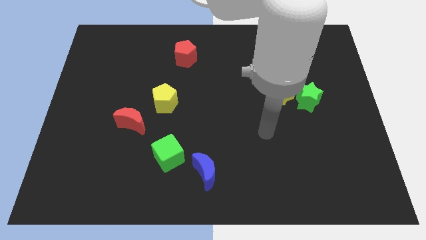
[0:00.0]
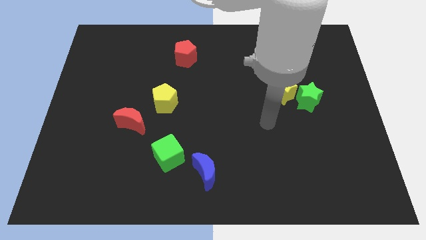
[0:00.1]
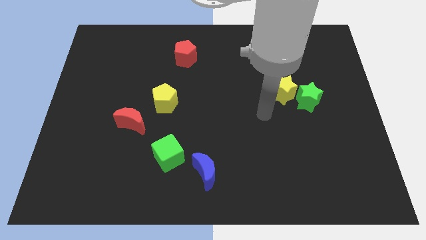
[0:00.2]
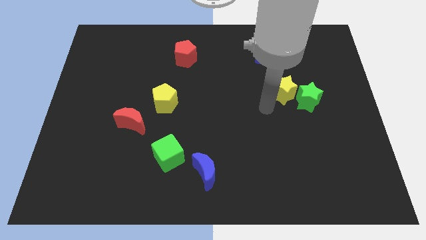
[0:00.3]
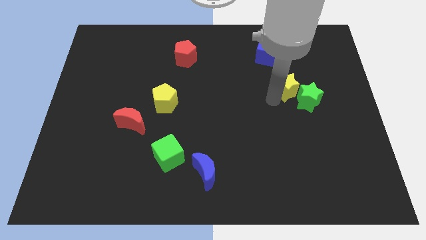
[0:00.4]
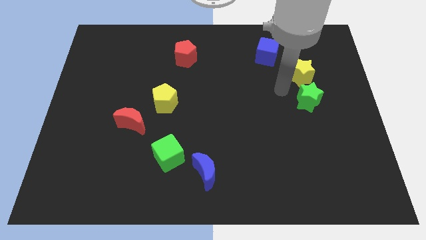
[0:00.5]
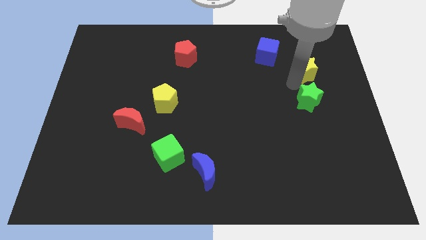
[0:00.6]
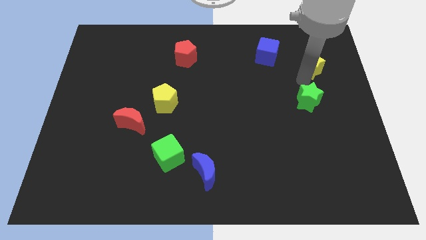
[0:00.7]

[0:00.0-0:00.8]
pull the green star apart from the yellow star

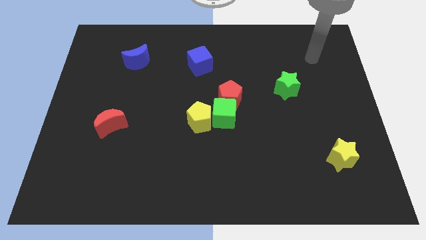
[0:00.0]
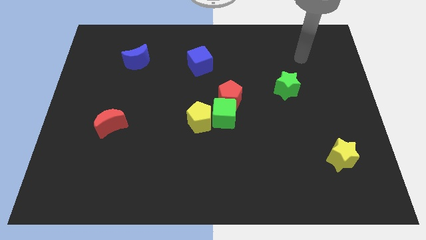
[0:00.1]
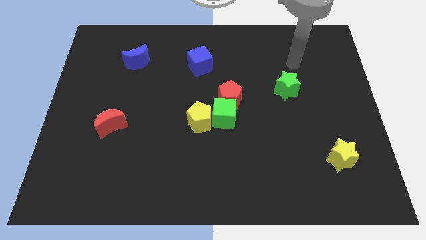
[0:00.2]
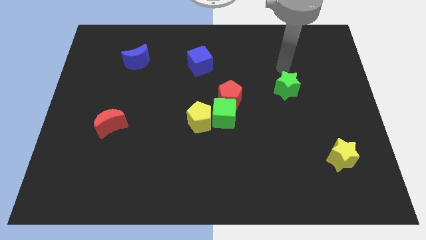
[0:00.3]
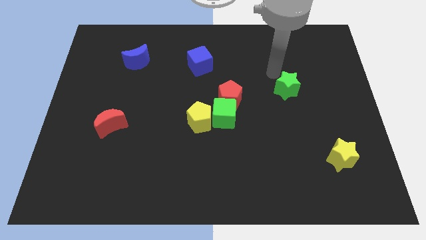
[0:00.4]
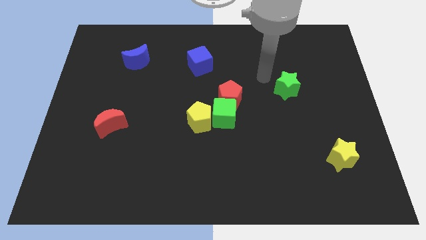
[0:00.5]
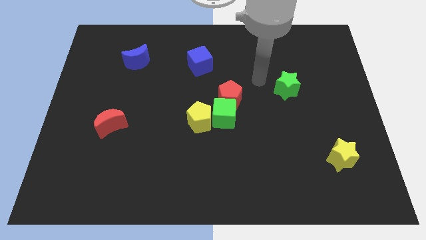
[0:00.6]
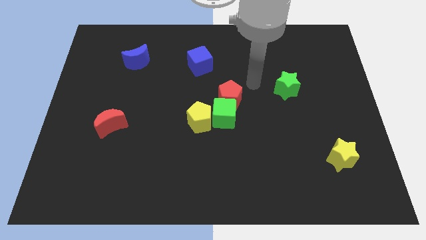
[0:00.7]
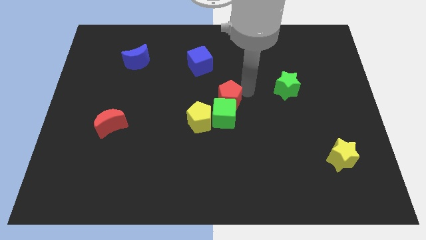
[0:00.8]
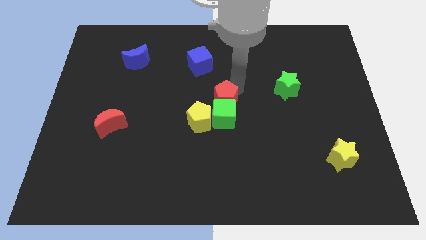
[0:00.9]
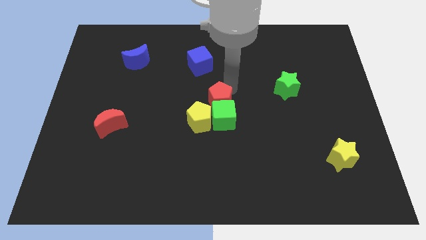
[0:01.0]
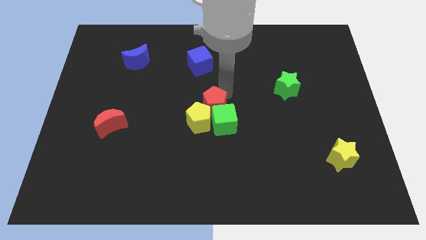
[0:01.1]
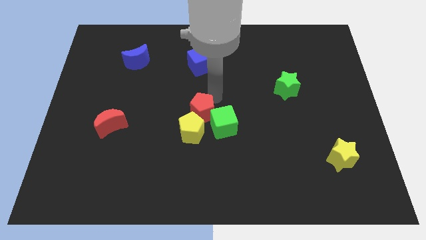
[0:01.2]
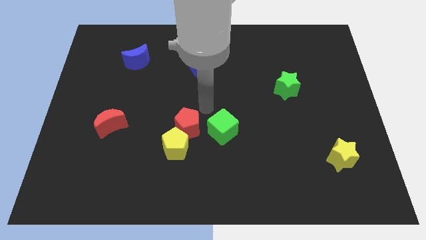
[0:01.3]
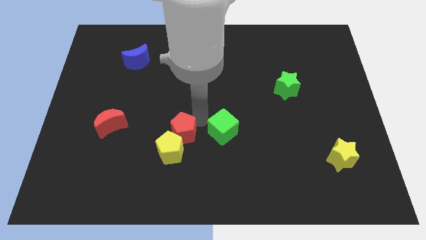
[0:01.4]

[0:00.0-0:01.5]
separate the green cube from the red pentagon and yellow pentagon

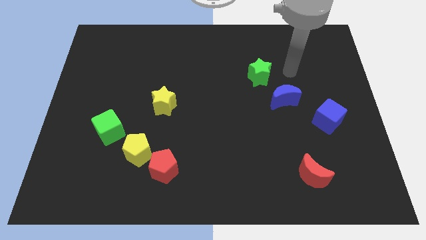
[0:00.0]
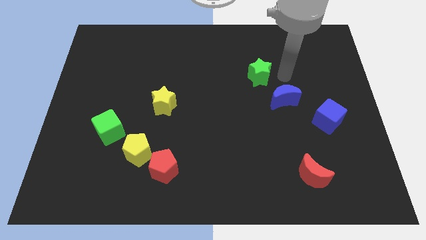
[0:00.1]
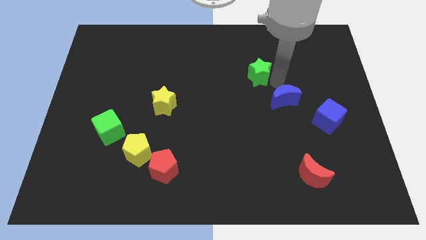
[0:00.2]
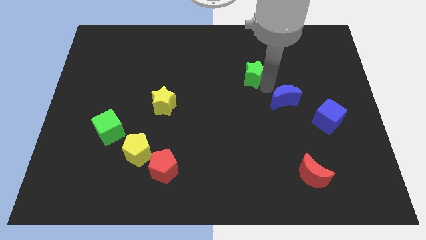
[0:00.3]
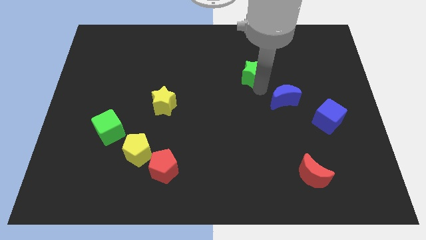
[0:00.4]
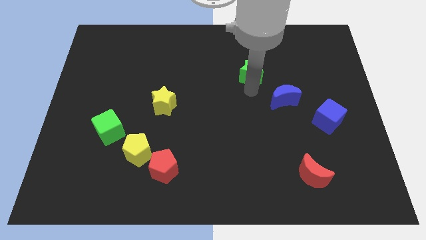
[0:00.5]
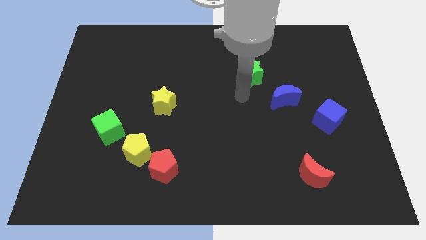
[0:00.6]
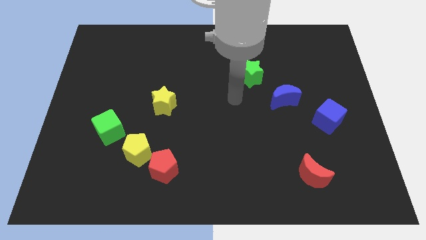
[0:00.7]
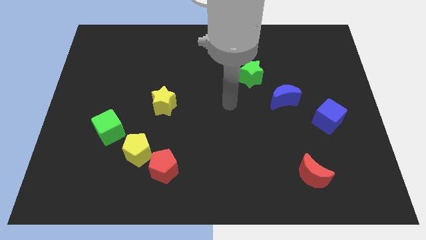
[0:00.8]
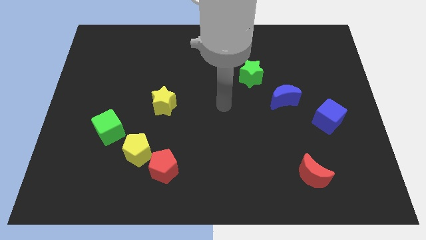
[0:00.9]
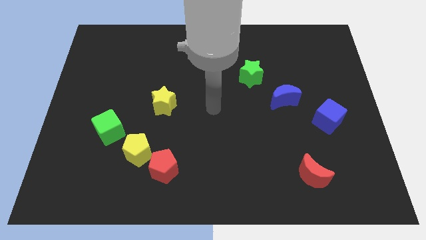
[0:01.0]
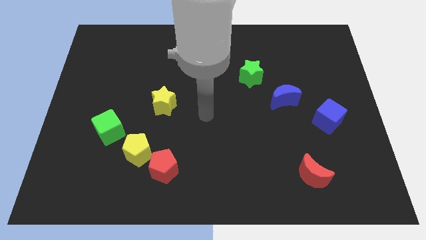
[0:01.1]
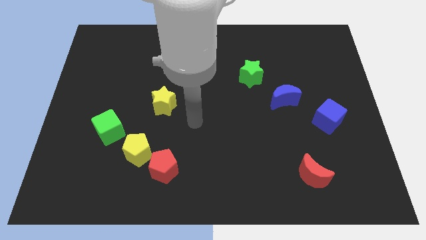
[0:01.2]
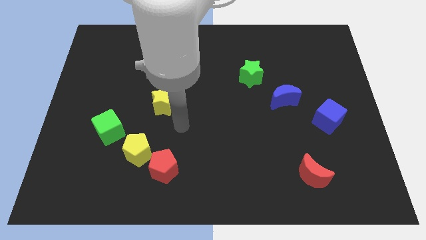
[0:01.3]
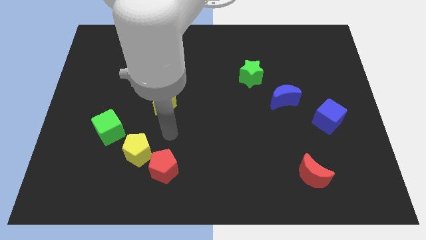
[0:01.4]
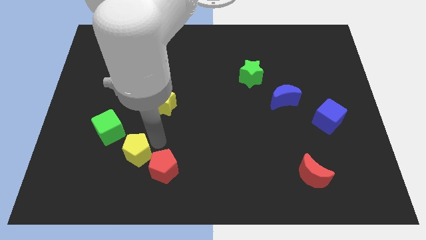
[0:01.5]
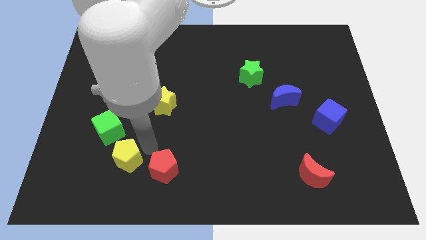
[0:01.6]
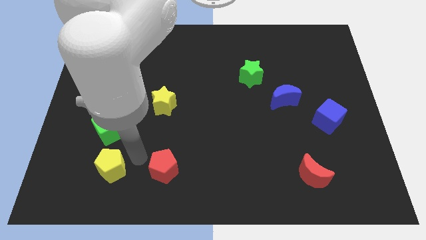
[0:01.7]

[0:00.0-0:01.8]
pull the red pentagon apart from the yellow pentagon

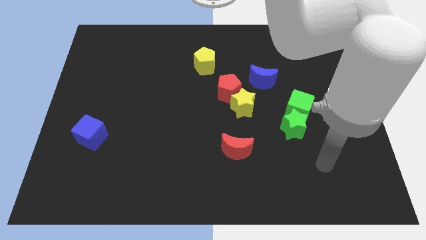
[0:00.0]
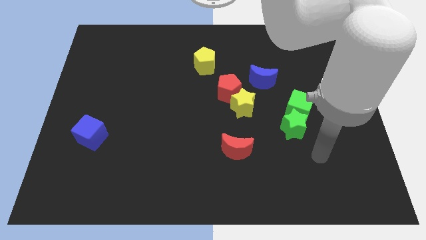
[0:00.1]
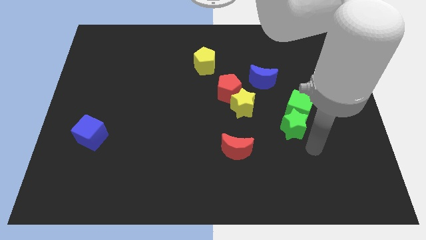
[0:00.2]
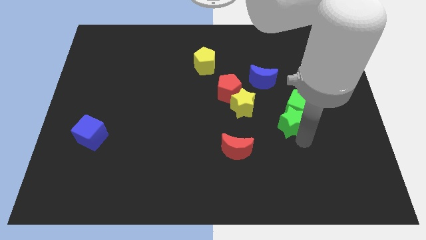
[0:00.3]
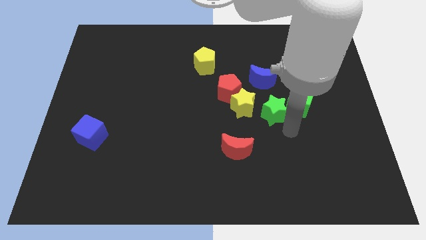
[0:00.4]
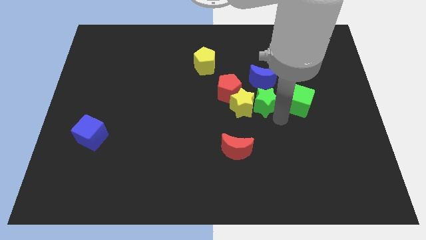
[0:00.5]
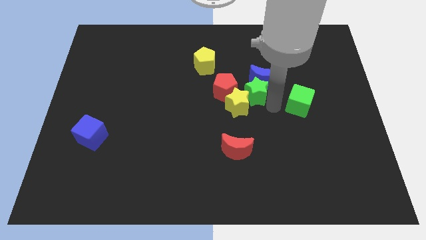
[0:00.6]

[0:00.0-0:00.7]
move the green cube away from the green star

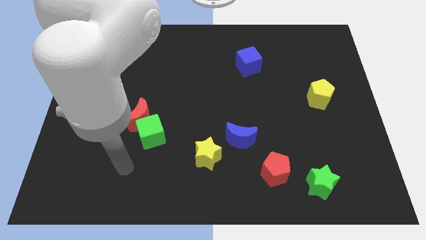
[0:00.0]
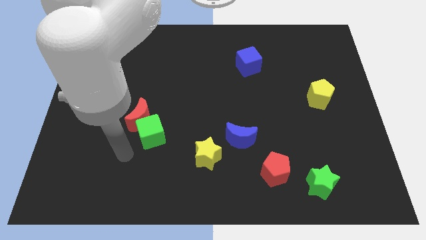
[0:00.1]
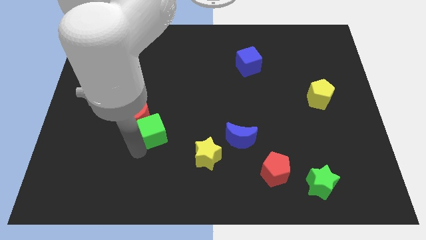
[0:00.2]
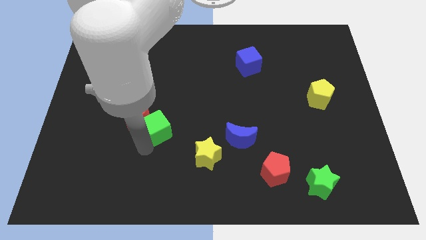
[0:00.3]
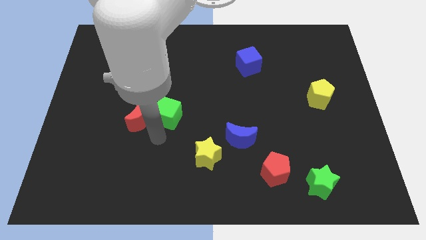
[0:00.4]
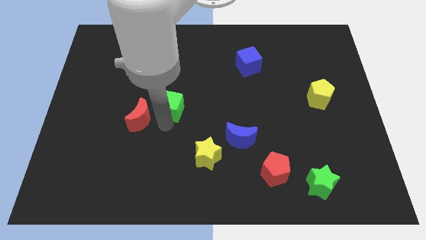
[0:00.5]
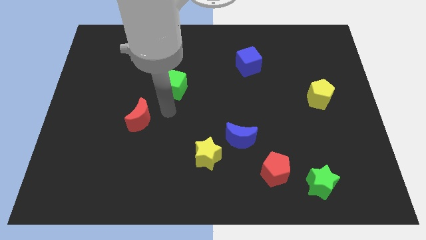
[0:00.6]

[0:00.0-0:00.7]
move the red moon away from the green cube

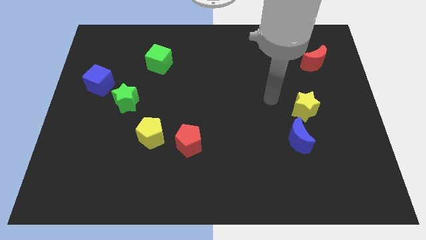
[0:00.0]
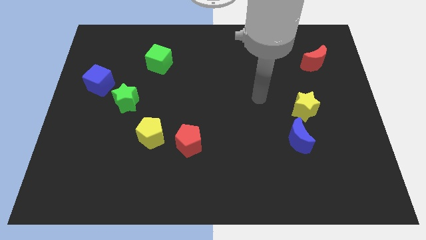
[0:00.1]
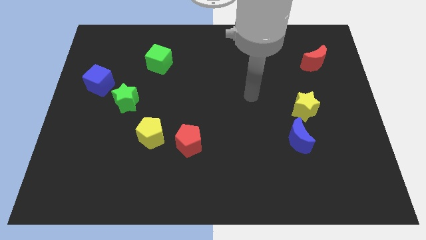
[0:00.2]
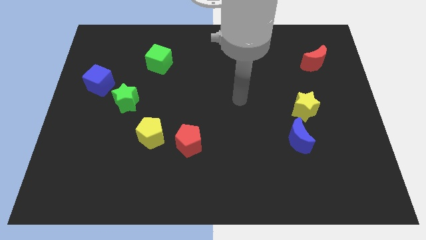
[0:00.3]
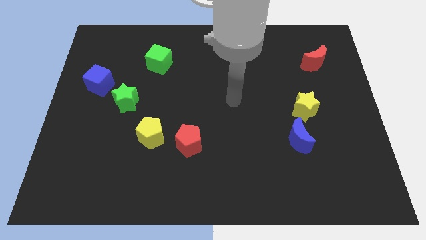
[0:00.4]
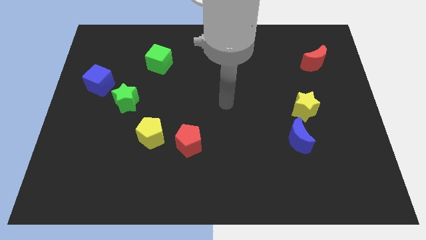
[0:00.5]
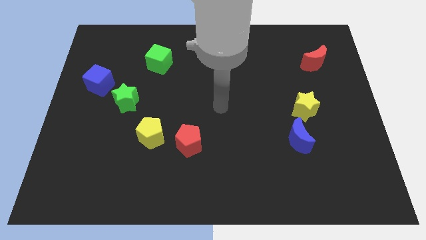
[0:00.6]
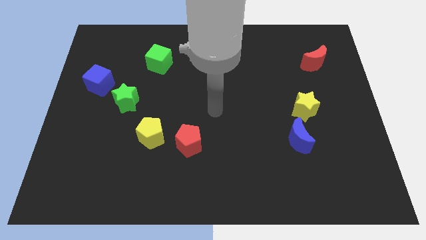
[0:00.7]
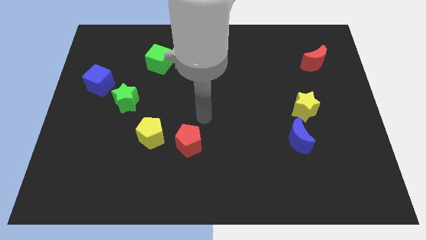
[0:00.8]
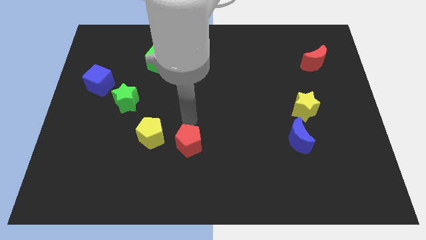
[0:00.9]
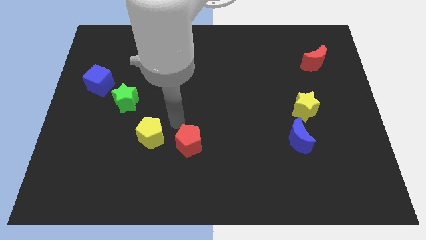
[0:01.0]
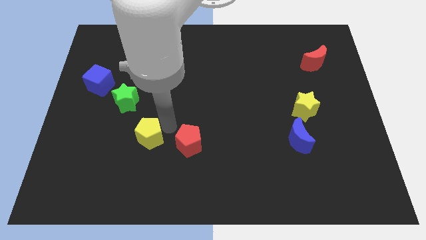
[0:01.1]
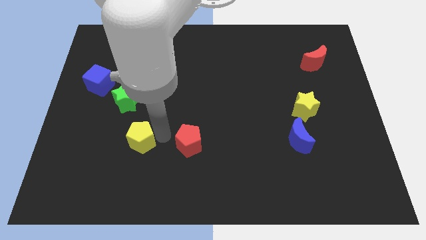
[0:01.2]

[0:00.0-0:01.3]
separate the red pentagon from the yellow pentagon

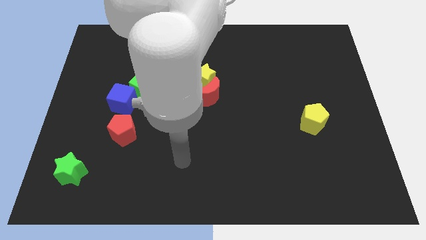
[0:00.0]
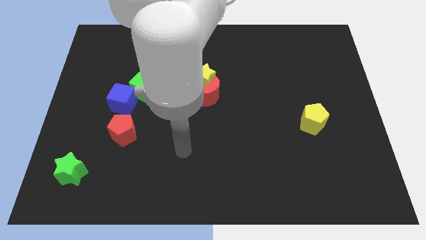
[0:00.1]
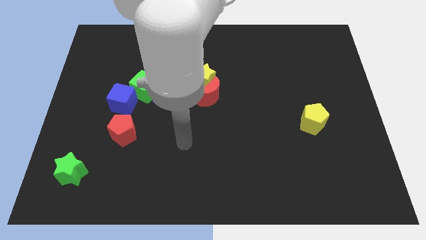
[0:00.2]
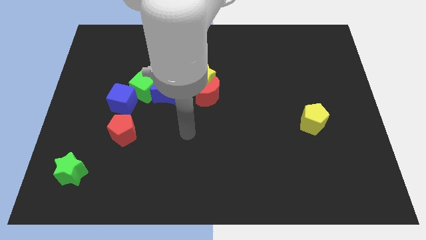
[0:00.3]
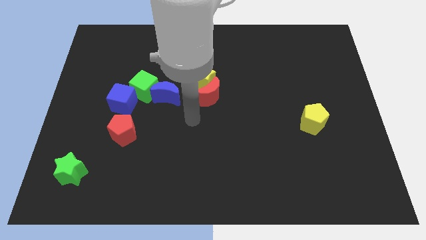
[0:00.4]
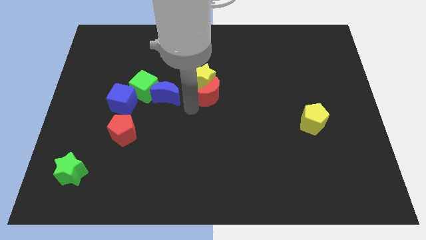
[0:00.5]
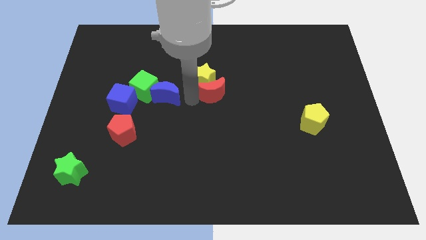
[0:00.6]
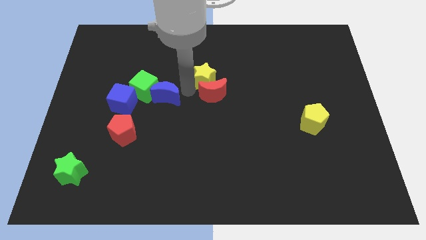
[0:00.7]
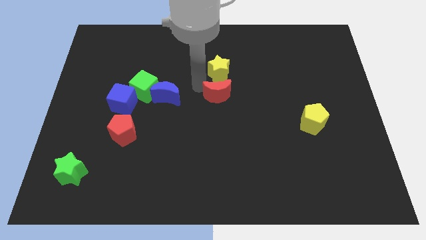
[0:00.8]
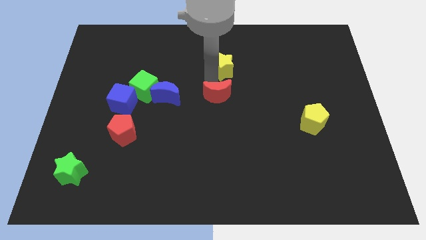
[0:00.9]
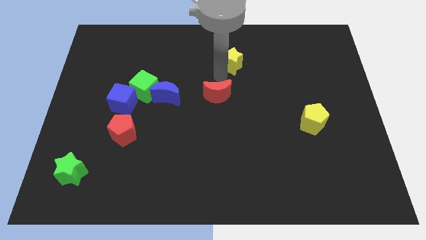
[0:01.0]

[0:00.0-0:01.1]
move the red moon away from the yellow star

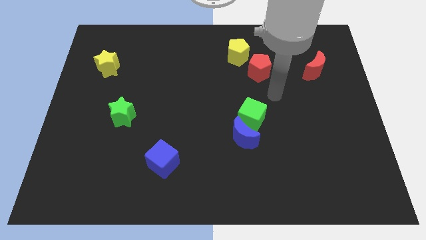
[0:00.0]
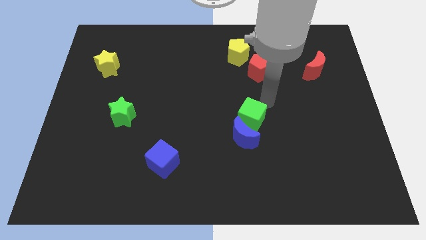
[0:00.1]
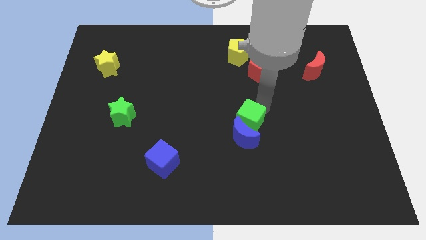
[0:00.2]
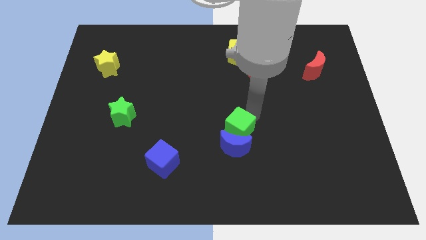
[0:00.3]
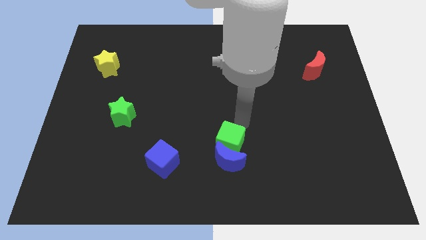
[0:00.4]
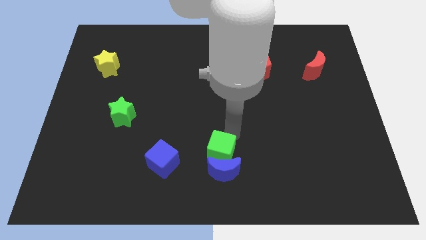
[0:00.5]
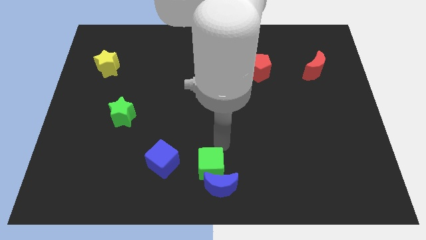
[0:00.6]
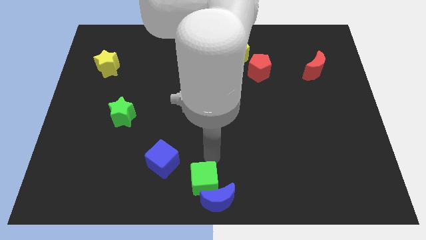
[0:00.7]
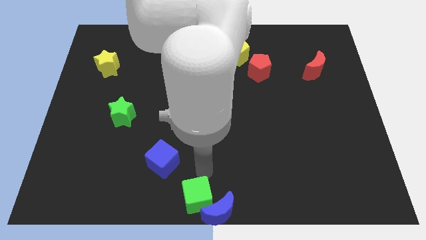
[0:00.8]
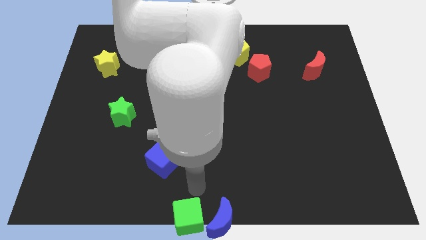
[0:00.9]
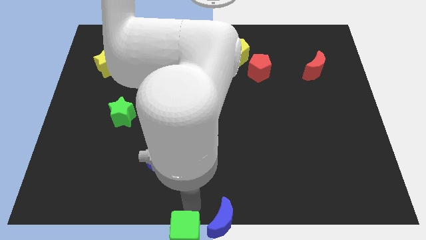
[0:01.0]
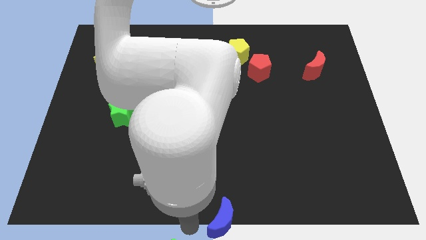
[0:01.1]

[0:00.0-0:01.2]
pull the blue moon apart from the green cube

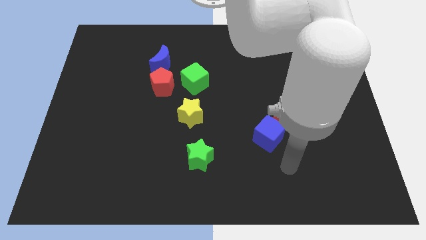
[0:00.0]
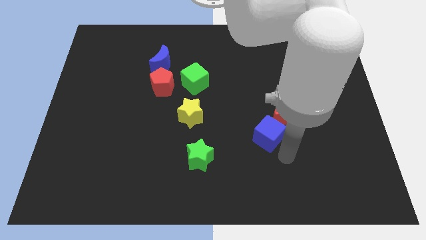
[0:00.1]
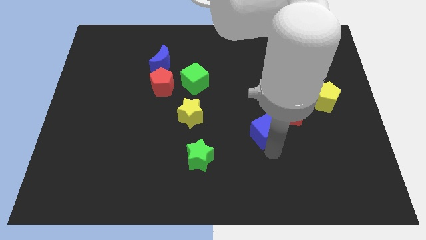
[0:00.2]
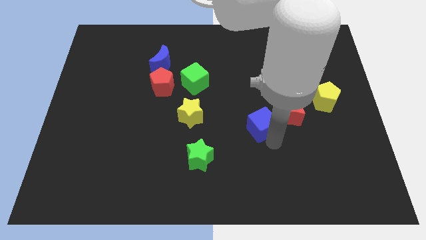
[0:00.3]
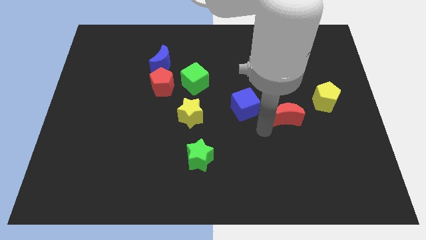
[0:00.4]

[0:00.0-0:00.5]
pull the red moon apart from the blue cube
